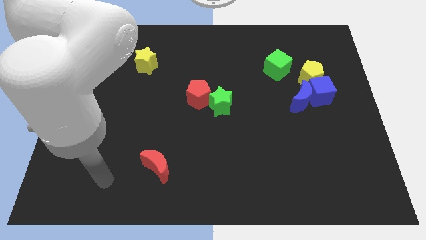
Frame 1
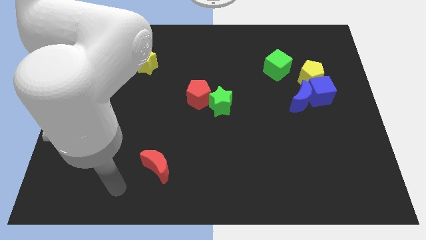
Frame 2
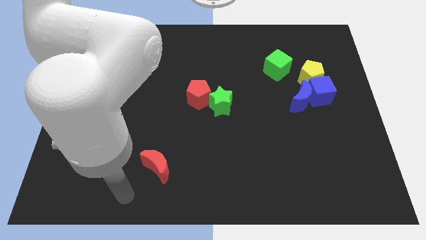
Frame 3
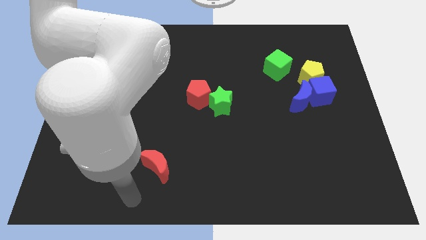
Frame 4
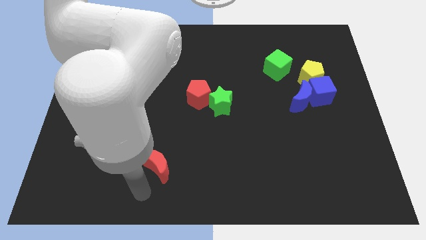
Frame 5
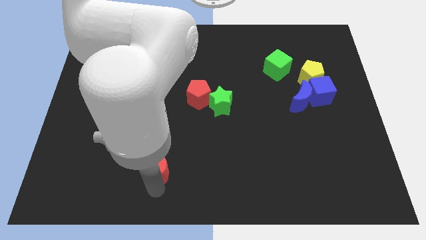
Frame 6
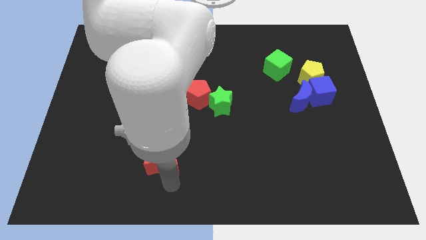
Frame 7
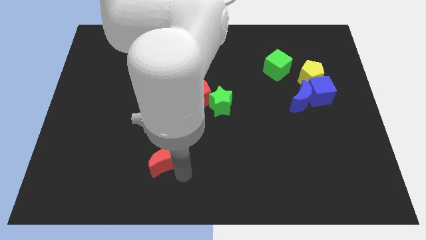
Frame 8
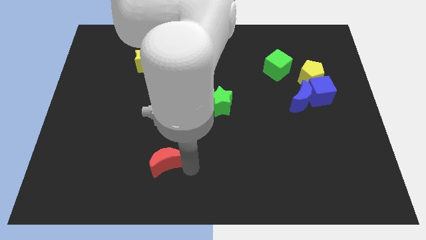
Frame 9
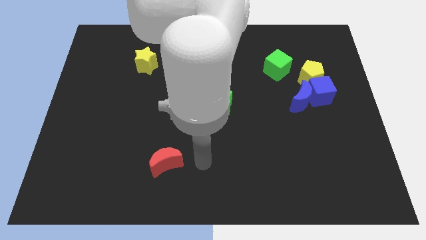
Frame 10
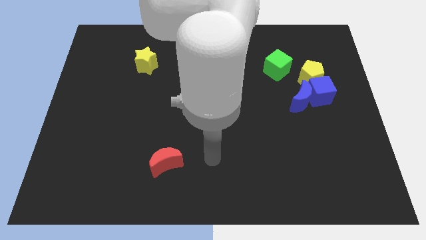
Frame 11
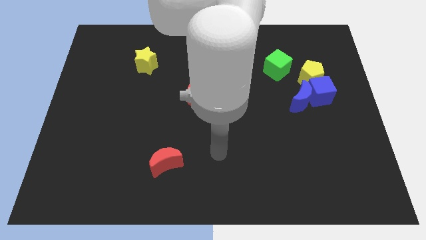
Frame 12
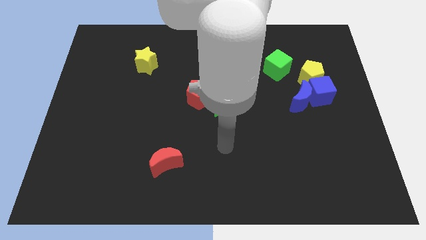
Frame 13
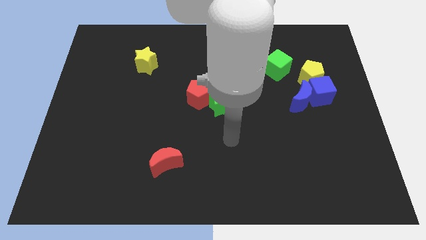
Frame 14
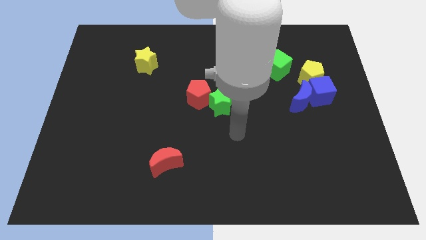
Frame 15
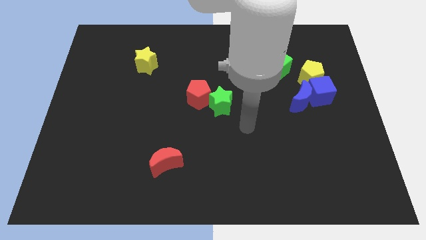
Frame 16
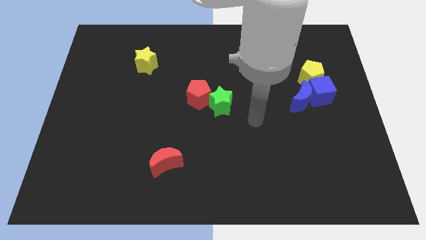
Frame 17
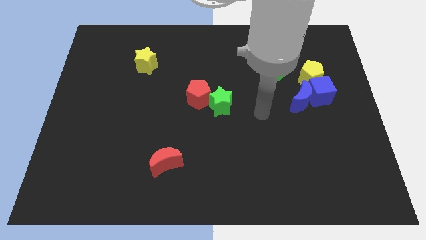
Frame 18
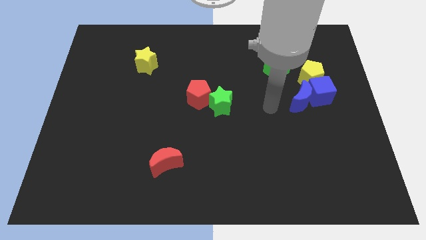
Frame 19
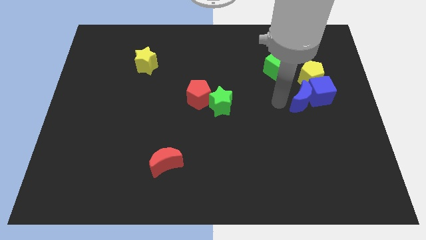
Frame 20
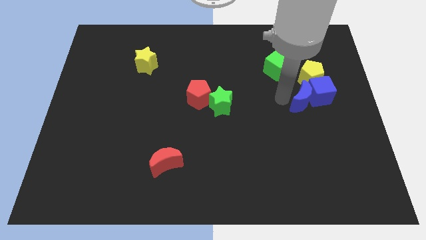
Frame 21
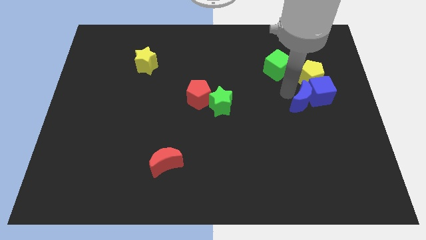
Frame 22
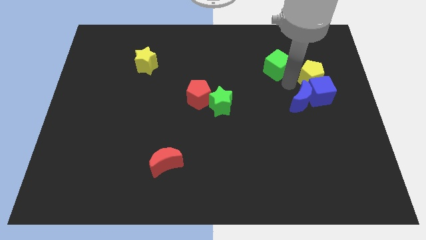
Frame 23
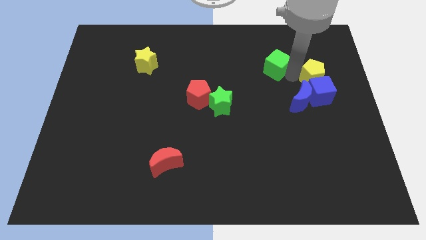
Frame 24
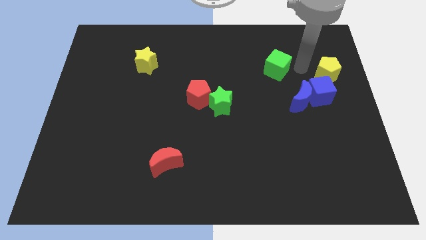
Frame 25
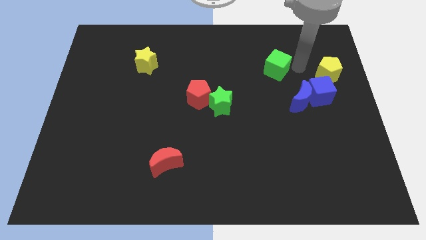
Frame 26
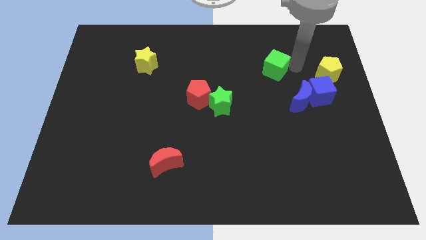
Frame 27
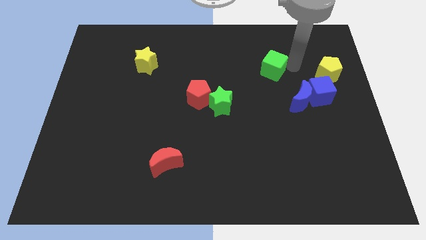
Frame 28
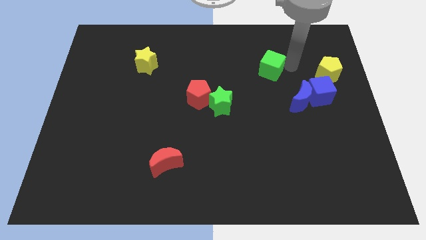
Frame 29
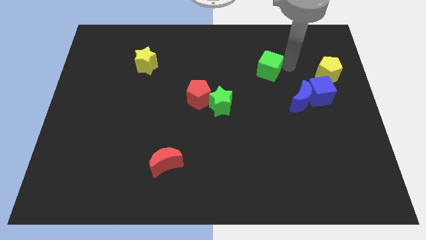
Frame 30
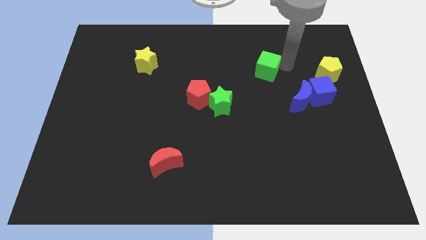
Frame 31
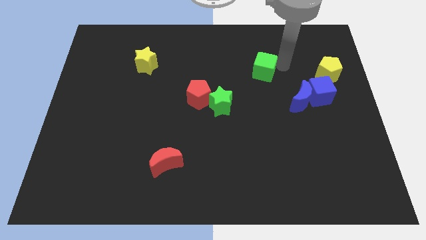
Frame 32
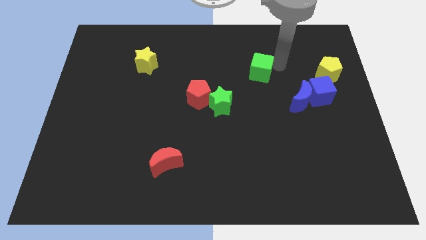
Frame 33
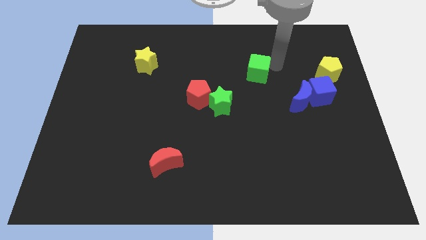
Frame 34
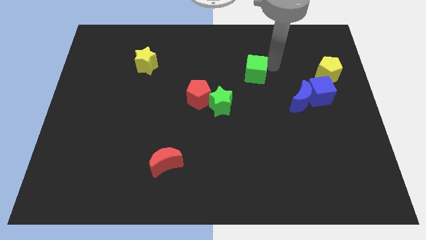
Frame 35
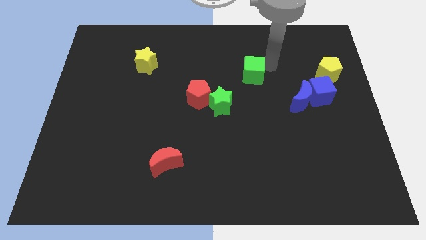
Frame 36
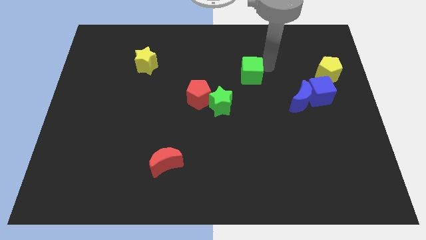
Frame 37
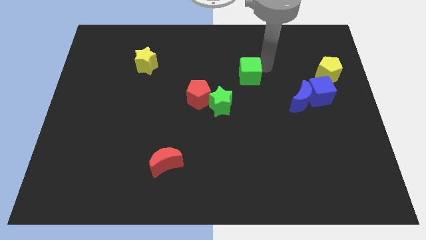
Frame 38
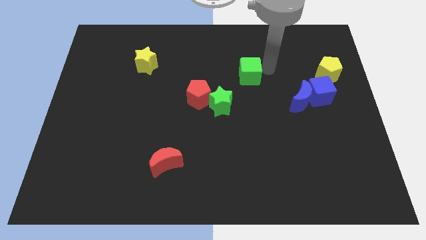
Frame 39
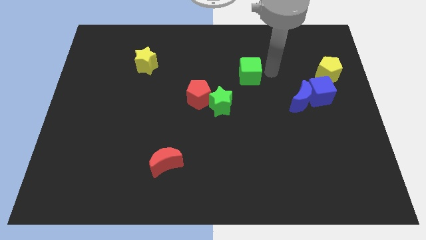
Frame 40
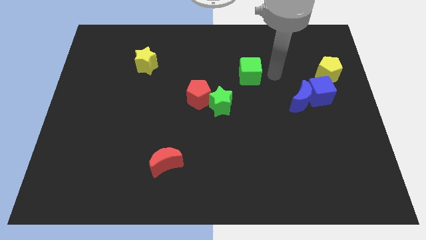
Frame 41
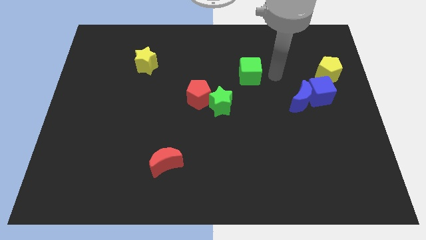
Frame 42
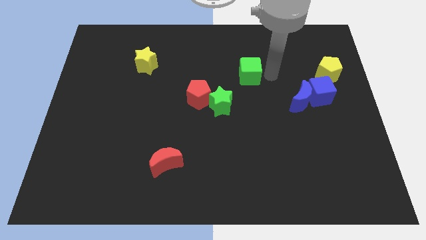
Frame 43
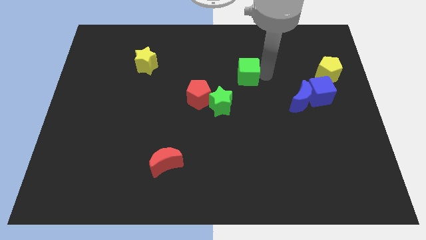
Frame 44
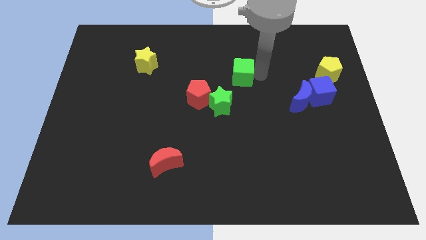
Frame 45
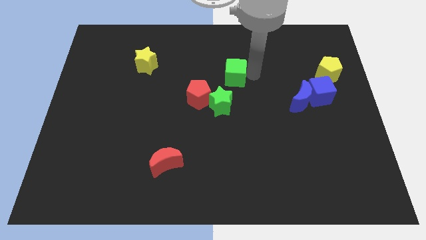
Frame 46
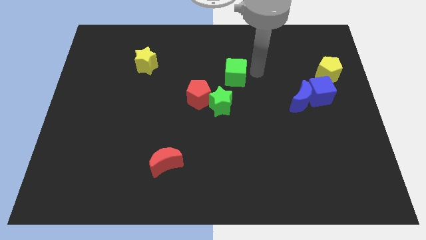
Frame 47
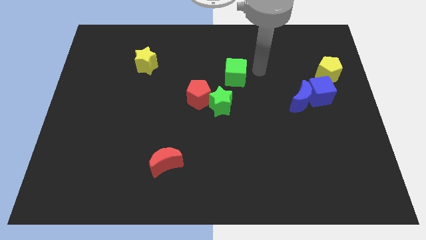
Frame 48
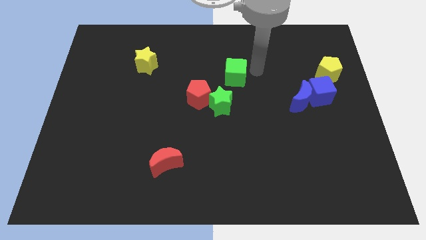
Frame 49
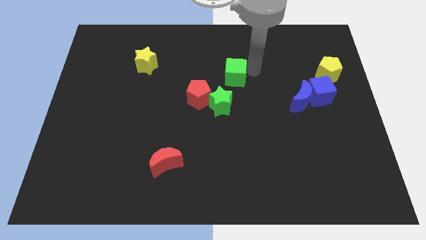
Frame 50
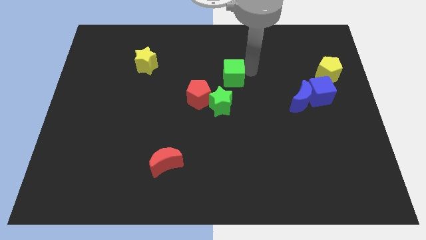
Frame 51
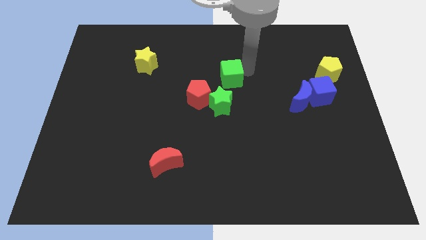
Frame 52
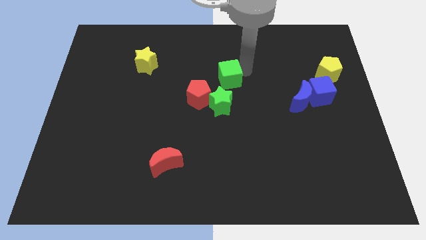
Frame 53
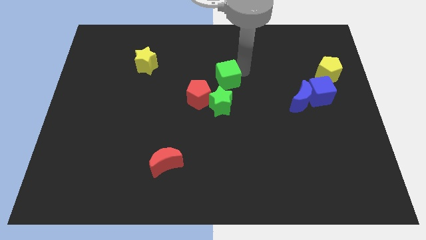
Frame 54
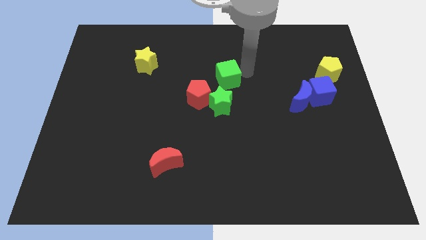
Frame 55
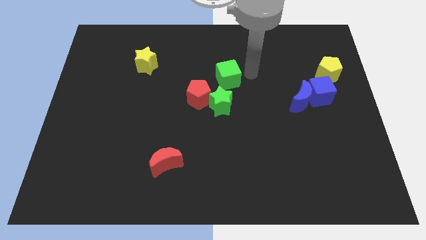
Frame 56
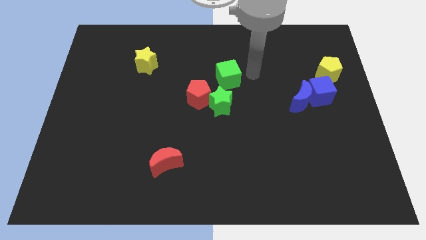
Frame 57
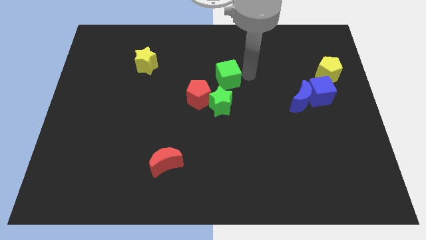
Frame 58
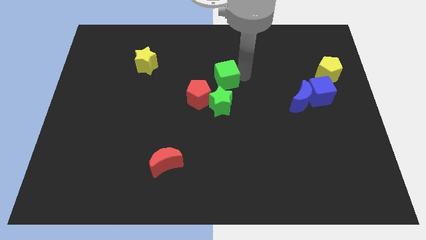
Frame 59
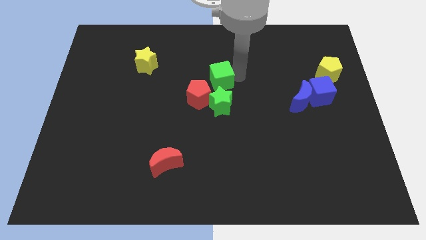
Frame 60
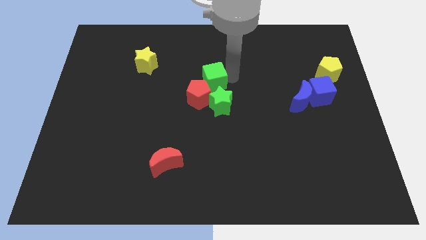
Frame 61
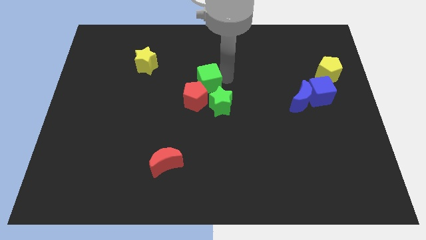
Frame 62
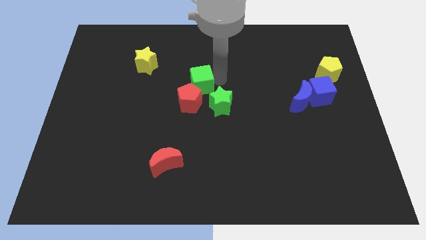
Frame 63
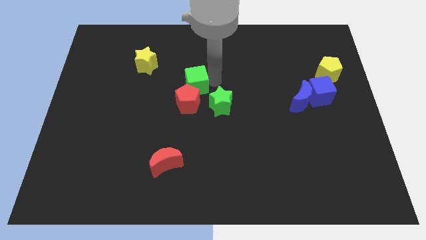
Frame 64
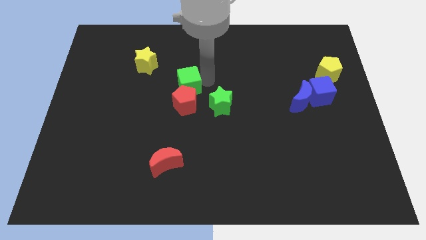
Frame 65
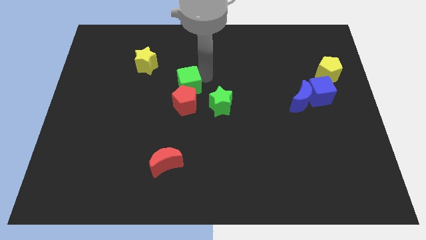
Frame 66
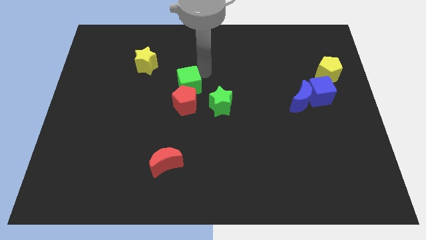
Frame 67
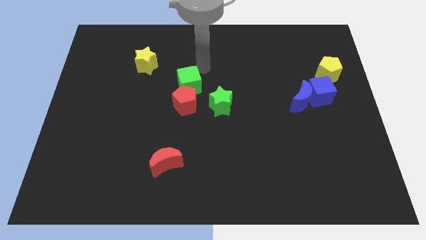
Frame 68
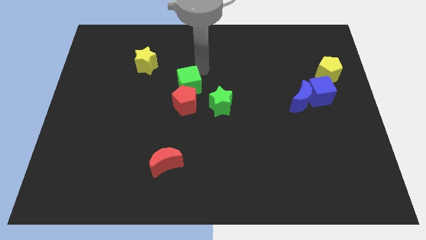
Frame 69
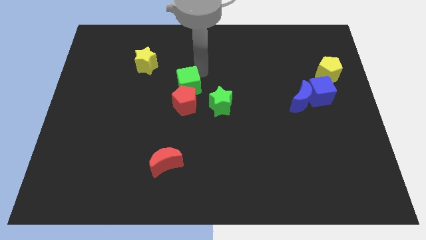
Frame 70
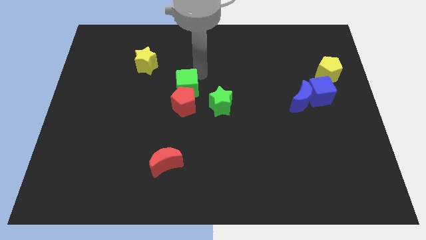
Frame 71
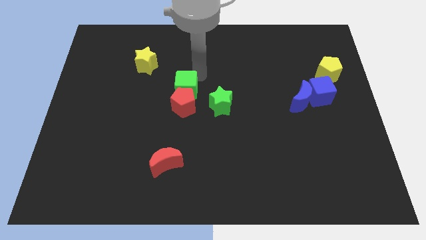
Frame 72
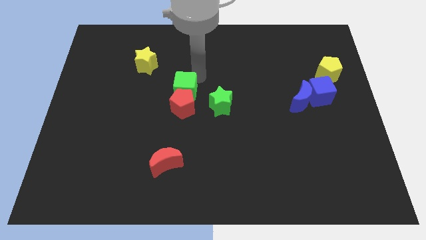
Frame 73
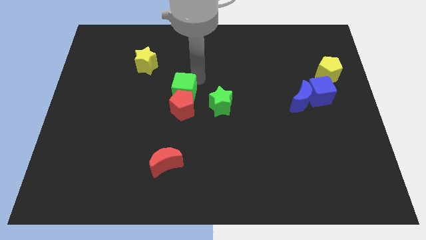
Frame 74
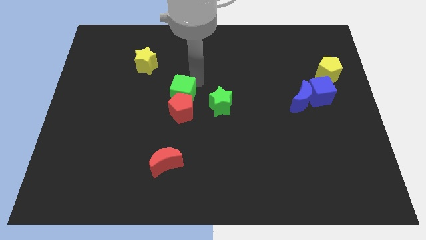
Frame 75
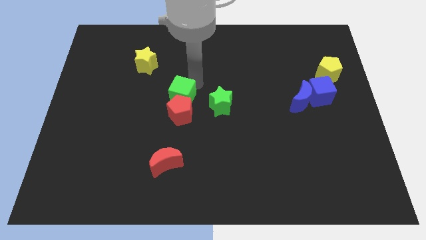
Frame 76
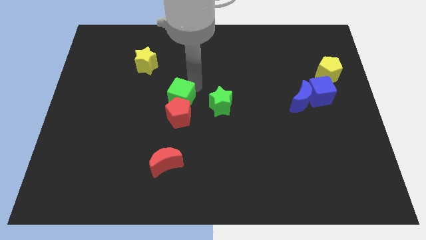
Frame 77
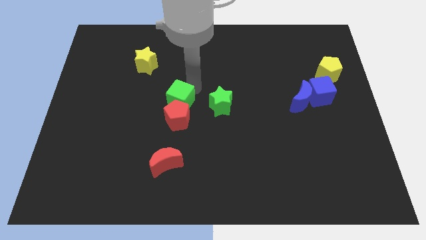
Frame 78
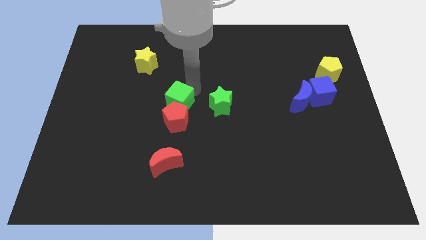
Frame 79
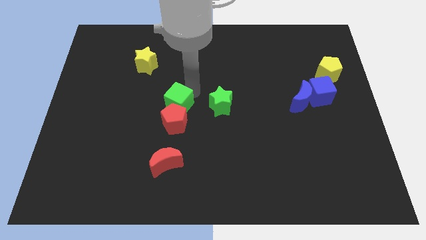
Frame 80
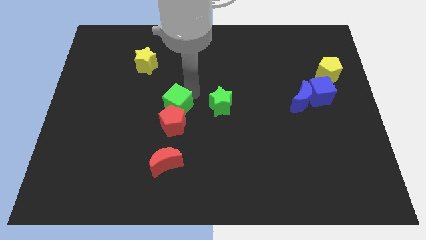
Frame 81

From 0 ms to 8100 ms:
put the green cube to the top side of the red moon
